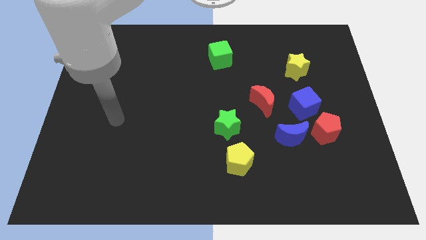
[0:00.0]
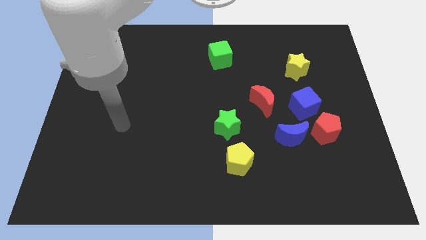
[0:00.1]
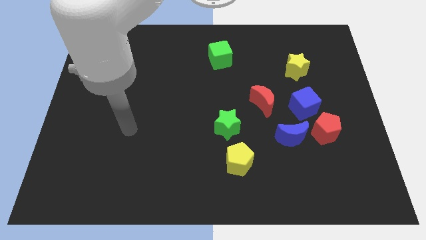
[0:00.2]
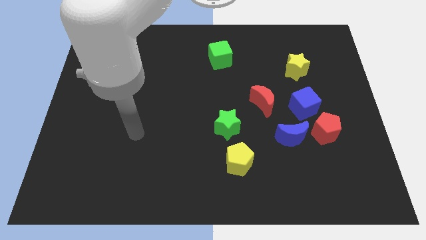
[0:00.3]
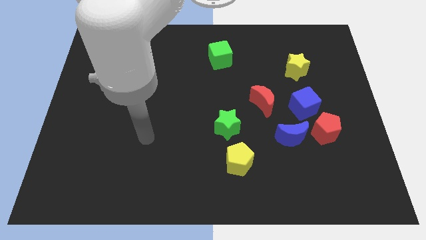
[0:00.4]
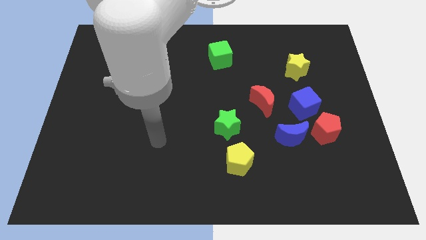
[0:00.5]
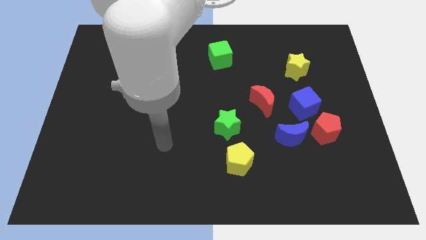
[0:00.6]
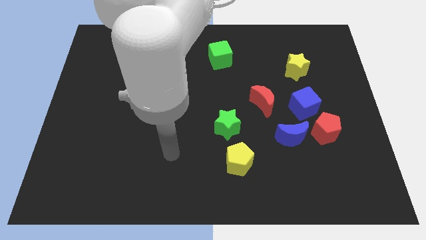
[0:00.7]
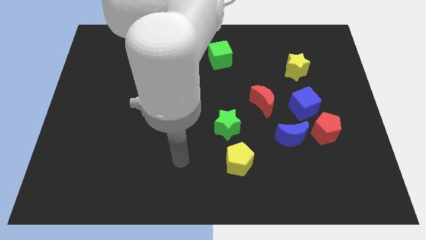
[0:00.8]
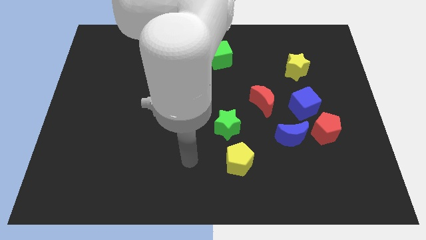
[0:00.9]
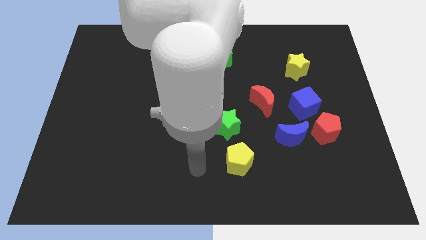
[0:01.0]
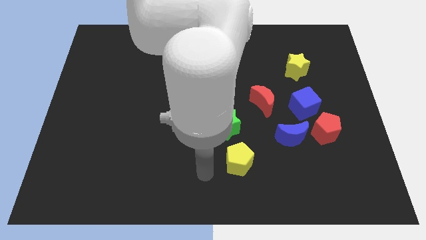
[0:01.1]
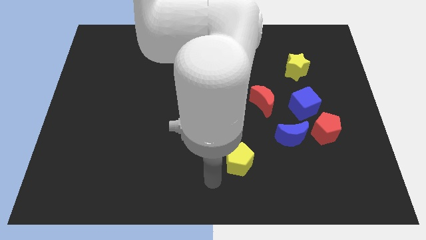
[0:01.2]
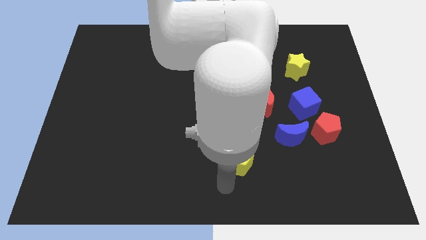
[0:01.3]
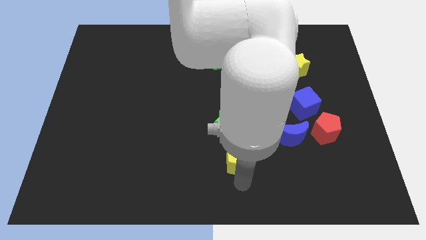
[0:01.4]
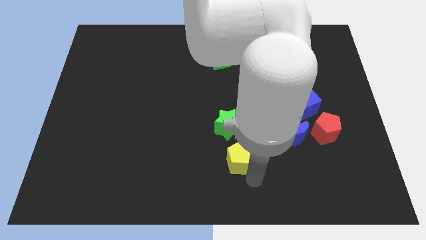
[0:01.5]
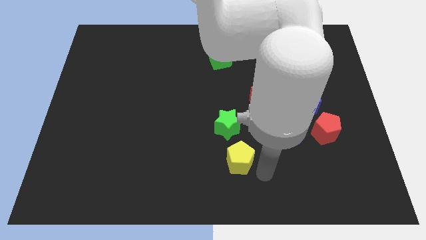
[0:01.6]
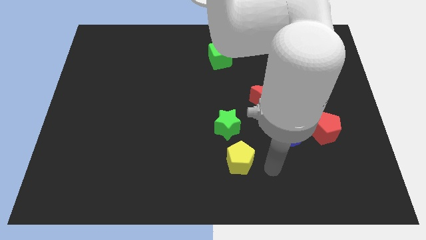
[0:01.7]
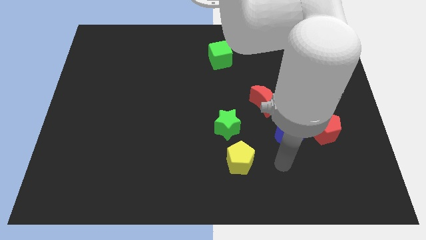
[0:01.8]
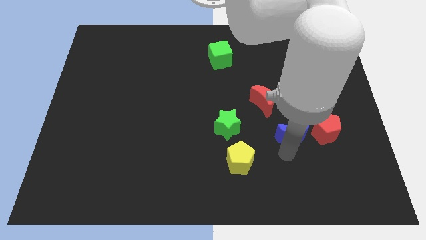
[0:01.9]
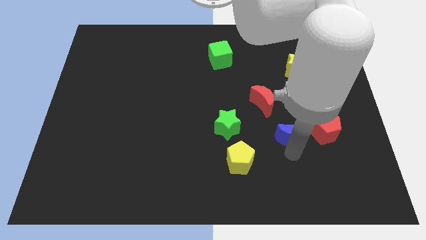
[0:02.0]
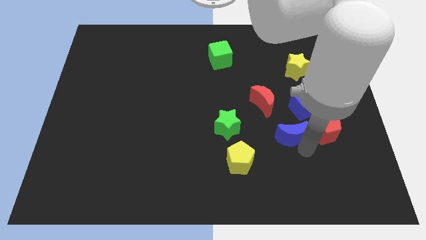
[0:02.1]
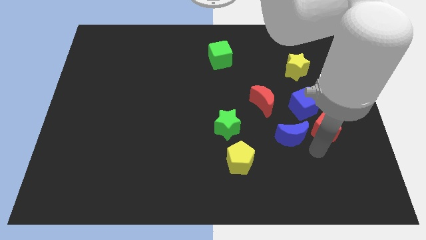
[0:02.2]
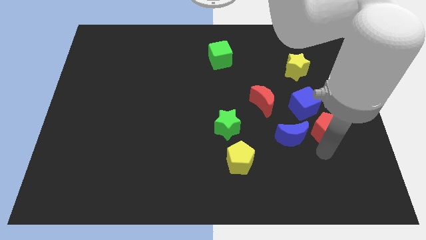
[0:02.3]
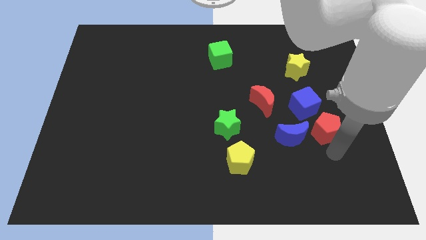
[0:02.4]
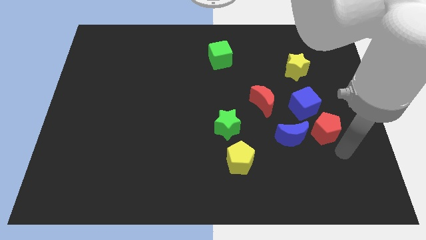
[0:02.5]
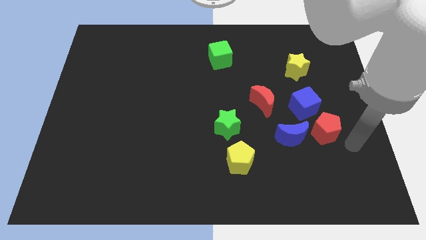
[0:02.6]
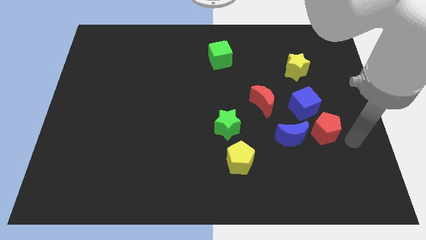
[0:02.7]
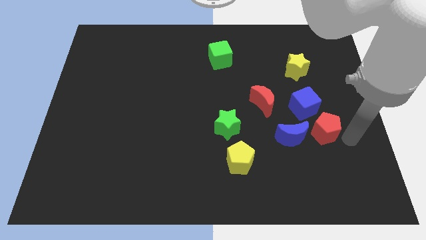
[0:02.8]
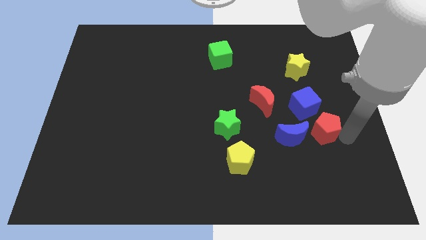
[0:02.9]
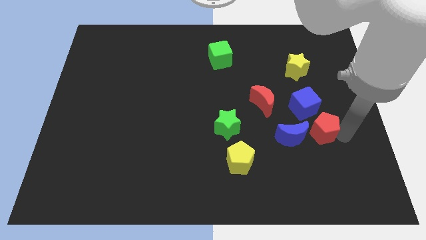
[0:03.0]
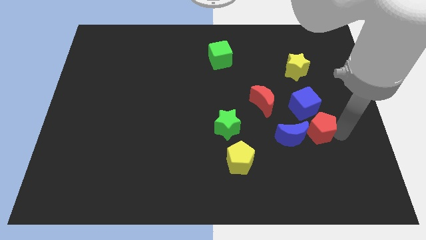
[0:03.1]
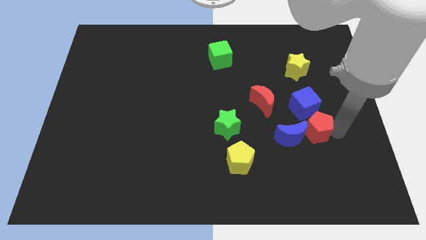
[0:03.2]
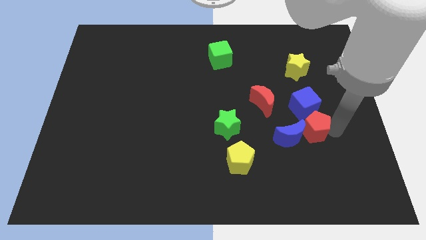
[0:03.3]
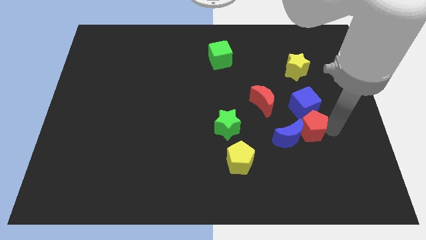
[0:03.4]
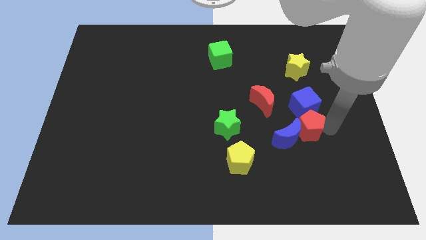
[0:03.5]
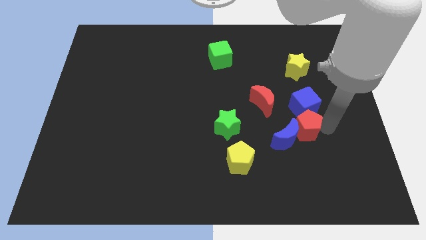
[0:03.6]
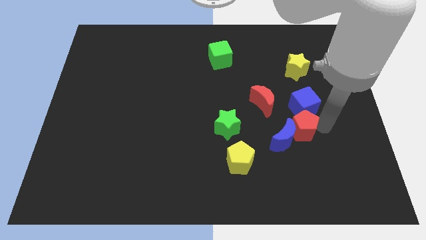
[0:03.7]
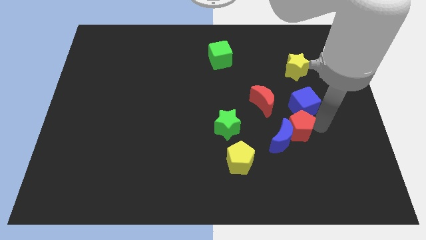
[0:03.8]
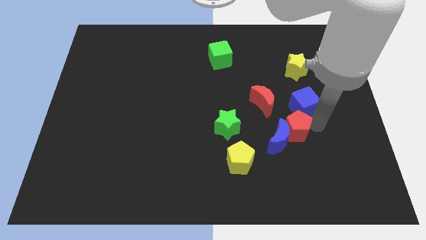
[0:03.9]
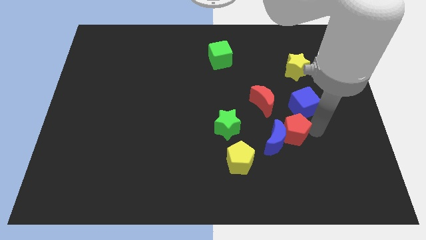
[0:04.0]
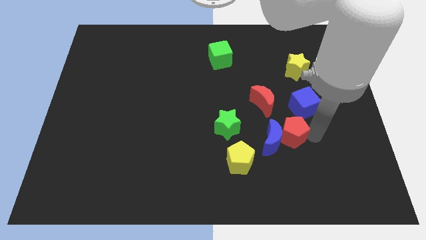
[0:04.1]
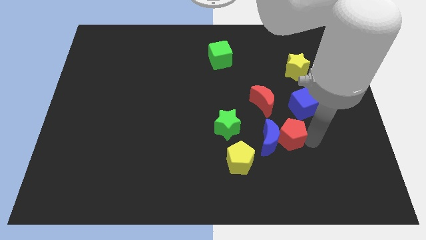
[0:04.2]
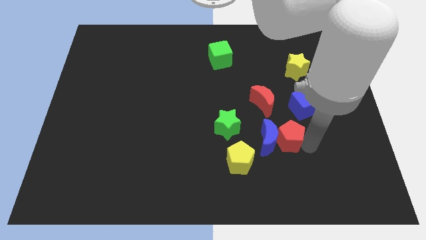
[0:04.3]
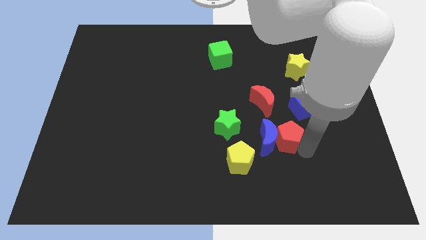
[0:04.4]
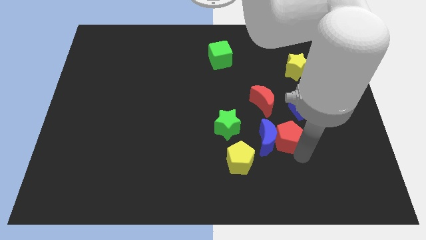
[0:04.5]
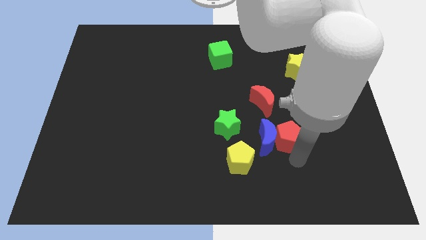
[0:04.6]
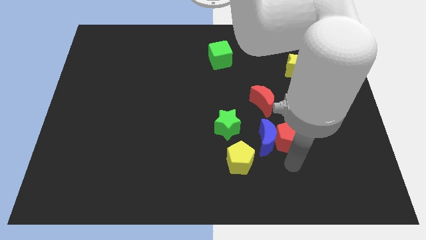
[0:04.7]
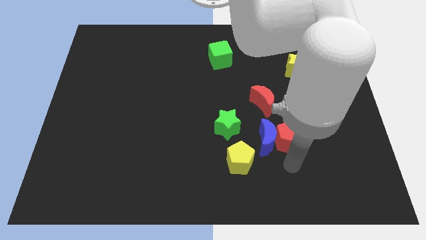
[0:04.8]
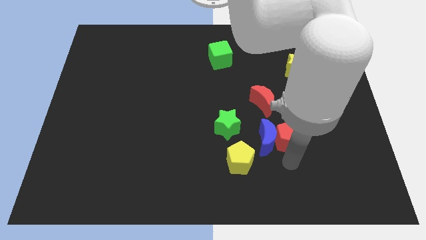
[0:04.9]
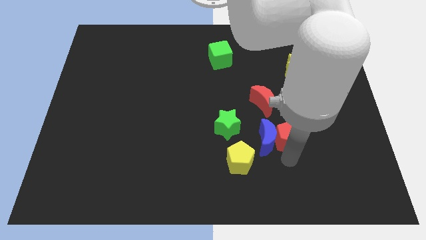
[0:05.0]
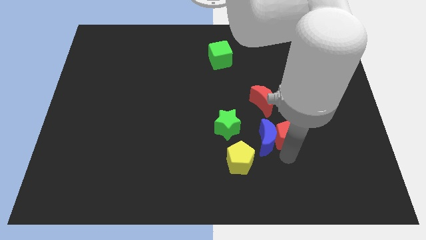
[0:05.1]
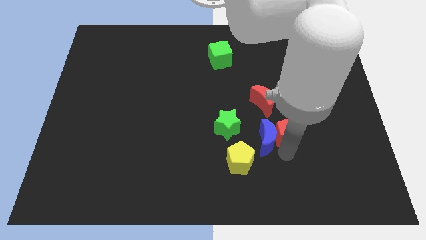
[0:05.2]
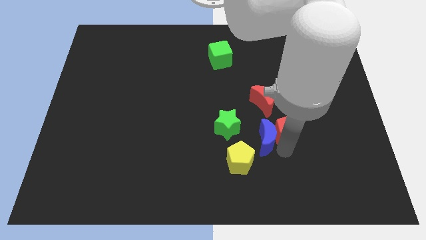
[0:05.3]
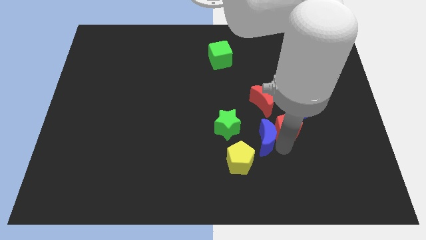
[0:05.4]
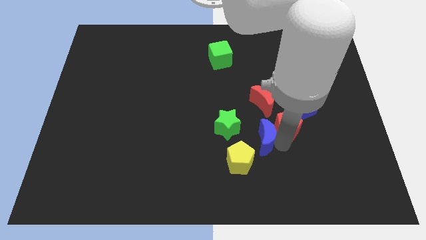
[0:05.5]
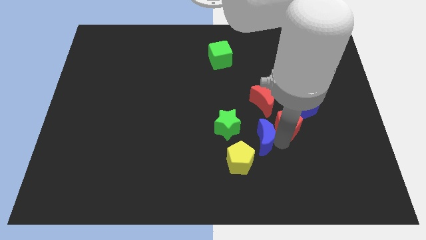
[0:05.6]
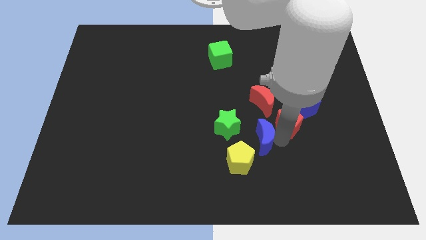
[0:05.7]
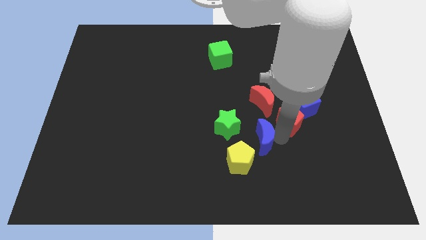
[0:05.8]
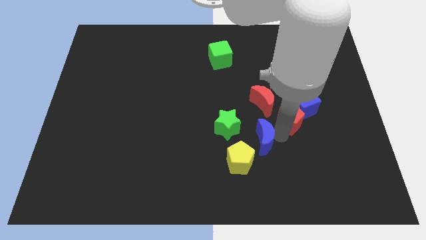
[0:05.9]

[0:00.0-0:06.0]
slightly slide the red pentagon up and then to the left

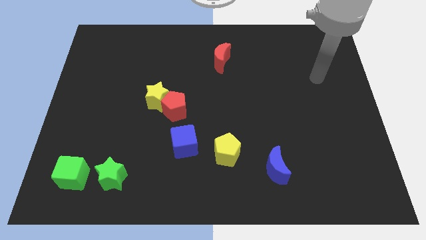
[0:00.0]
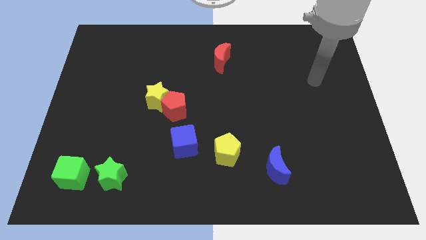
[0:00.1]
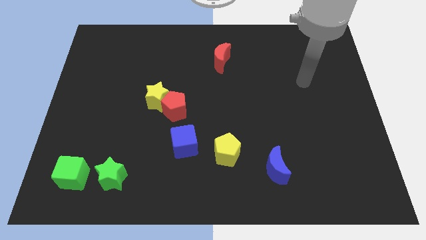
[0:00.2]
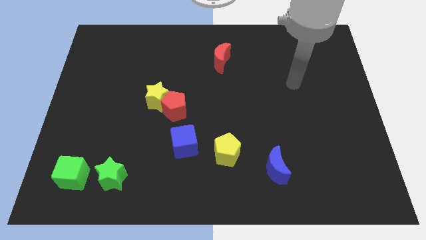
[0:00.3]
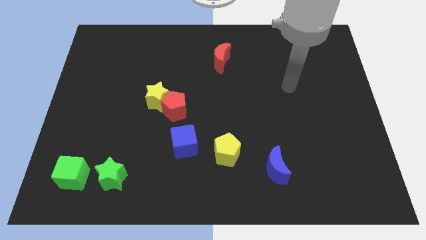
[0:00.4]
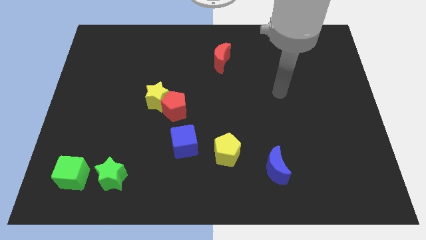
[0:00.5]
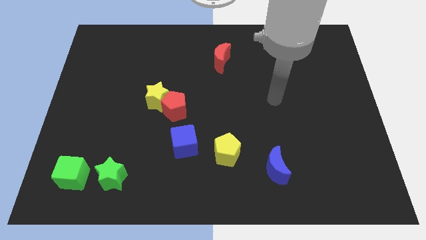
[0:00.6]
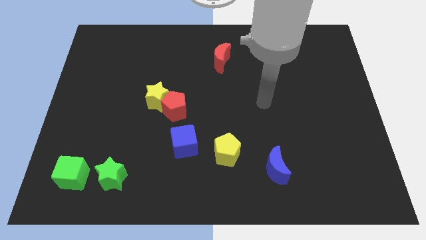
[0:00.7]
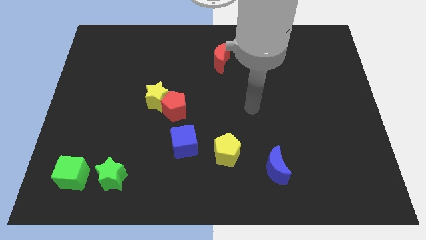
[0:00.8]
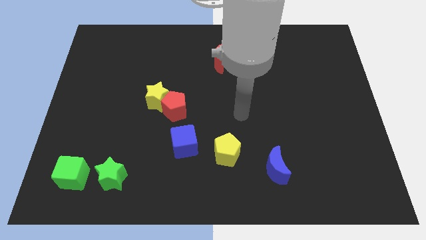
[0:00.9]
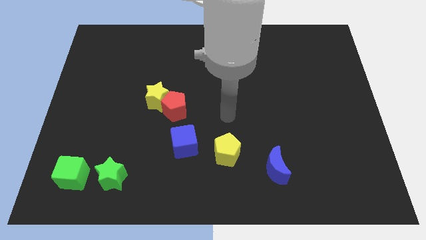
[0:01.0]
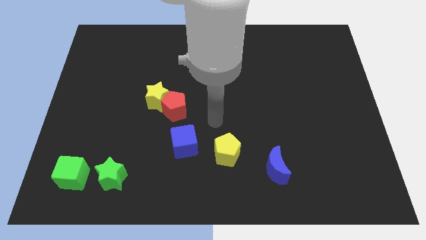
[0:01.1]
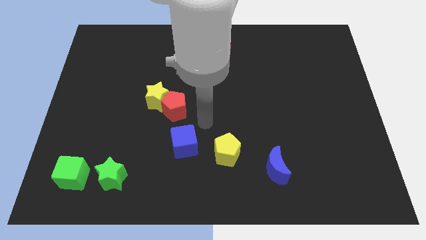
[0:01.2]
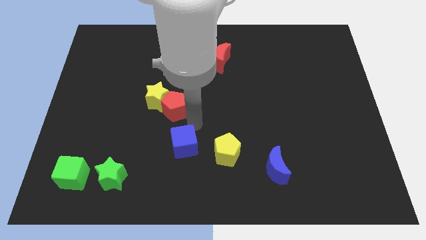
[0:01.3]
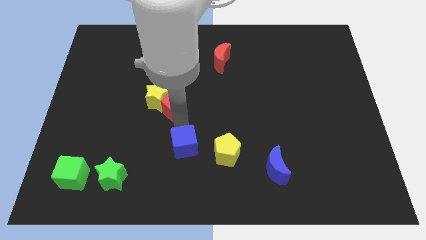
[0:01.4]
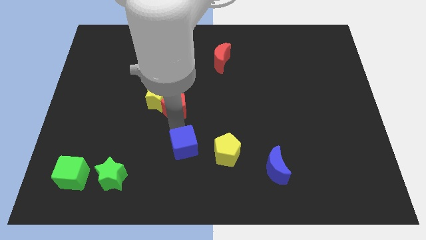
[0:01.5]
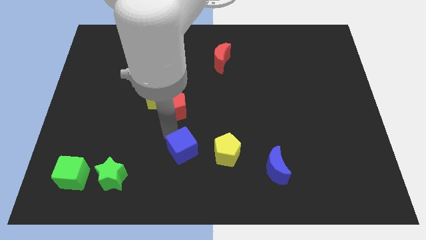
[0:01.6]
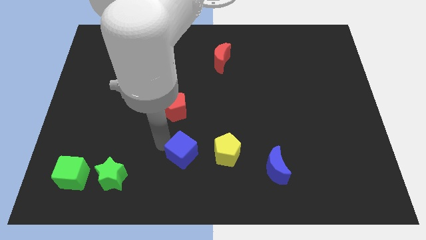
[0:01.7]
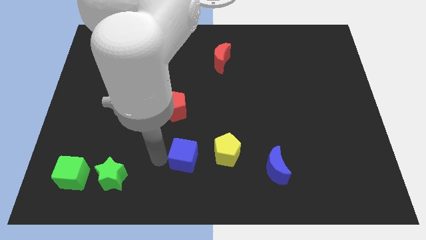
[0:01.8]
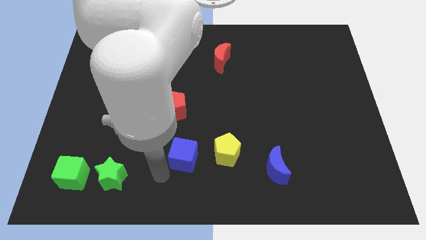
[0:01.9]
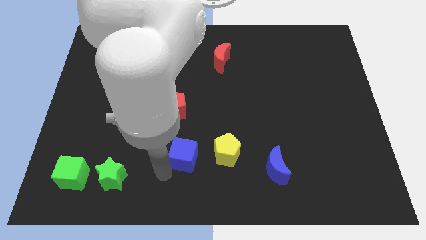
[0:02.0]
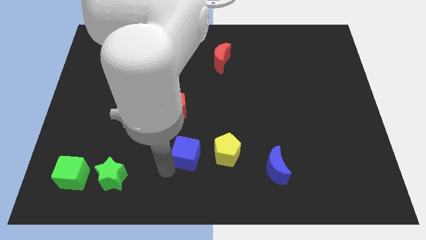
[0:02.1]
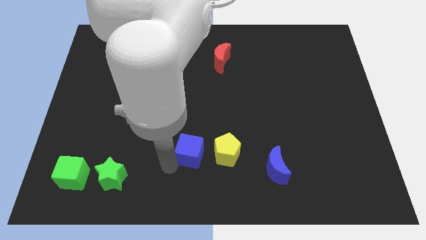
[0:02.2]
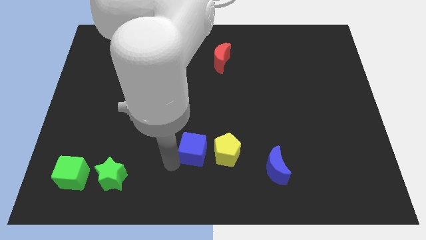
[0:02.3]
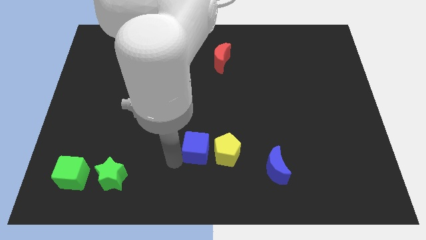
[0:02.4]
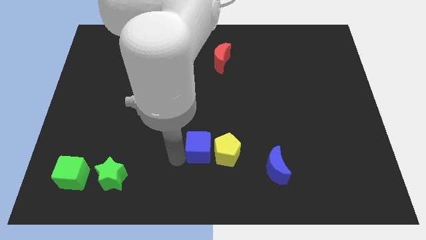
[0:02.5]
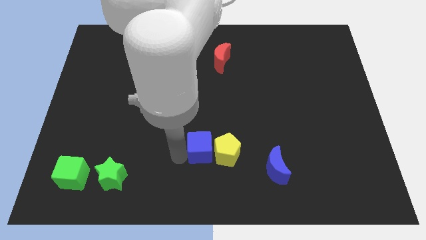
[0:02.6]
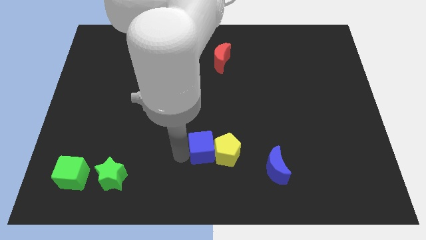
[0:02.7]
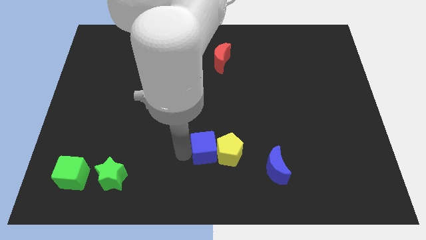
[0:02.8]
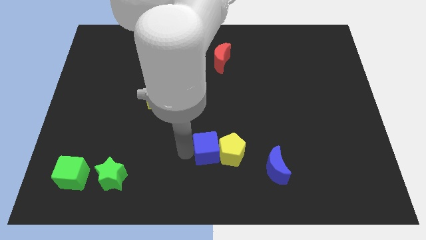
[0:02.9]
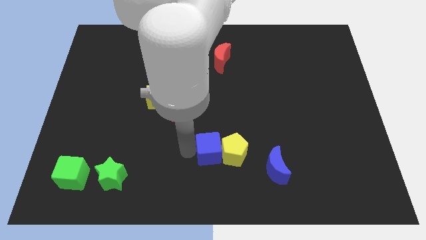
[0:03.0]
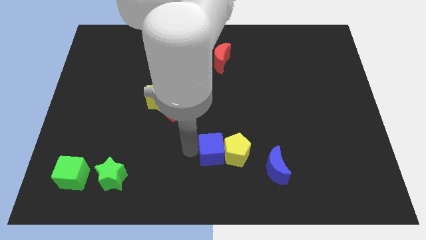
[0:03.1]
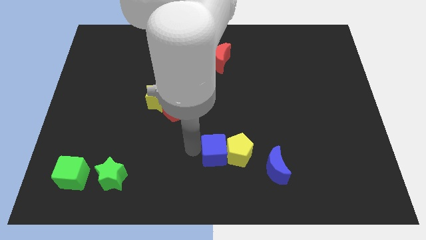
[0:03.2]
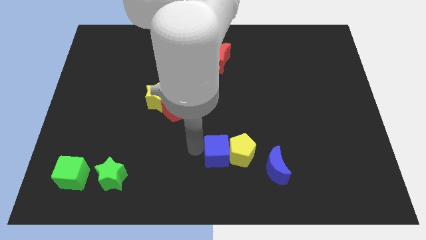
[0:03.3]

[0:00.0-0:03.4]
slightly push the blue cube right
